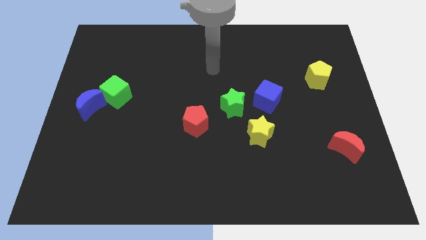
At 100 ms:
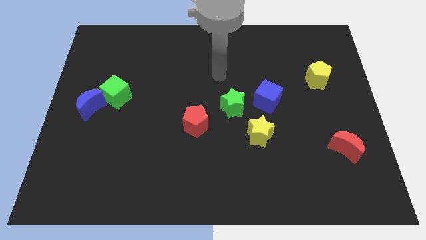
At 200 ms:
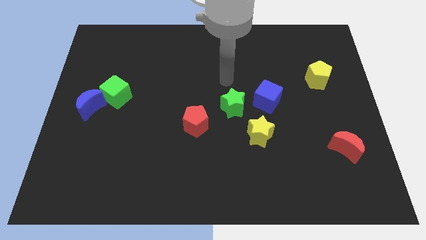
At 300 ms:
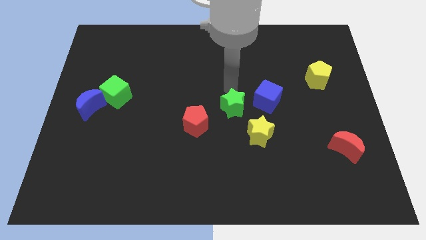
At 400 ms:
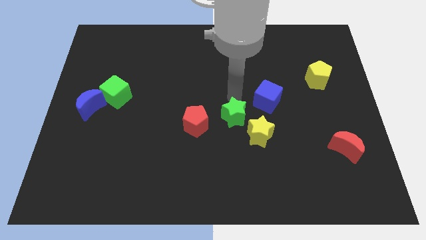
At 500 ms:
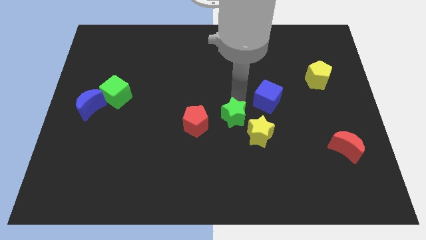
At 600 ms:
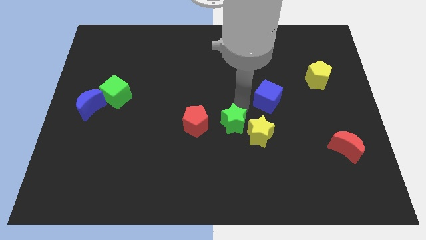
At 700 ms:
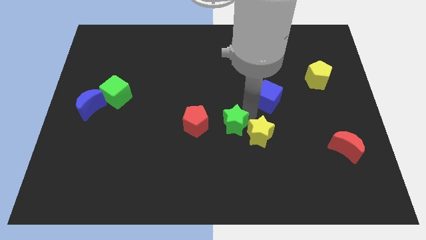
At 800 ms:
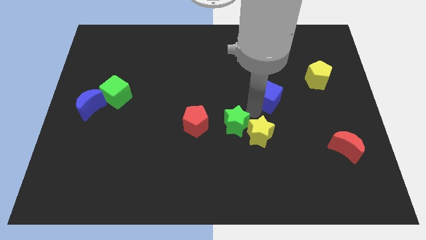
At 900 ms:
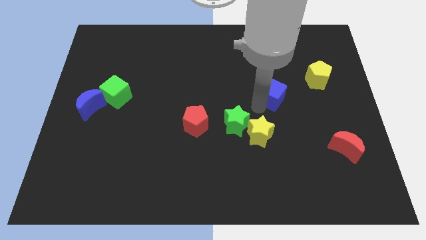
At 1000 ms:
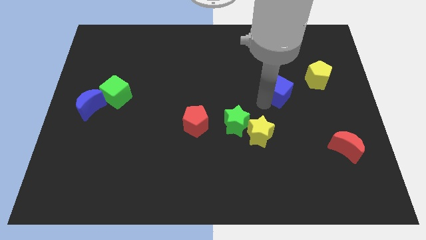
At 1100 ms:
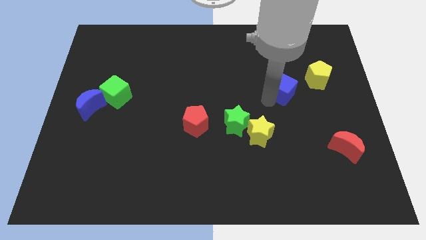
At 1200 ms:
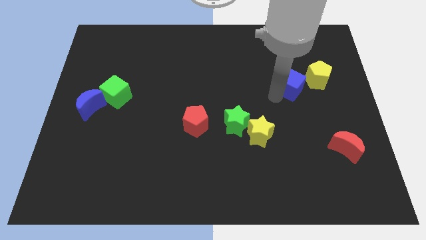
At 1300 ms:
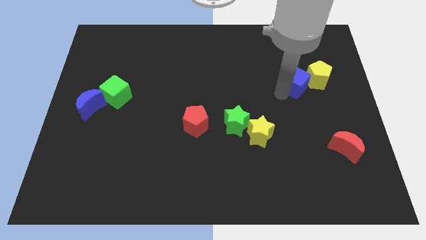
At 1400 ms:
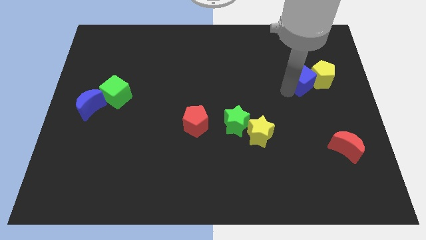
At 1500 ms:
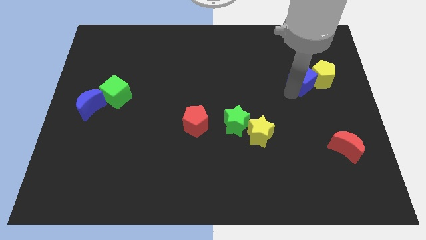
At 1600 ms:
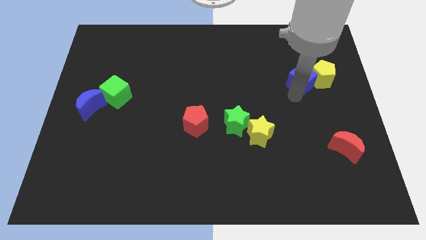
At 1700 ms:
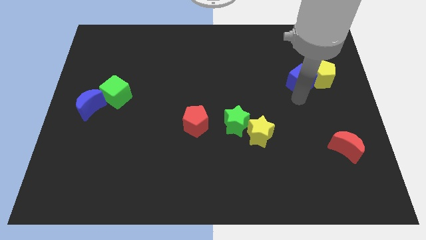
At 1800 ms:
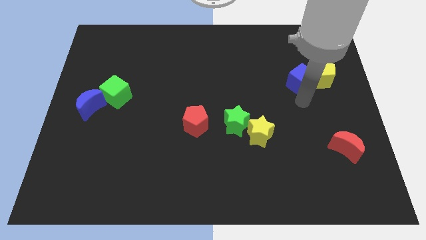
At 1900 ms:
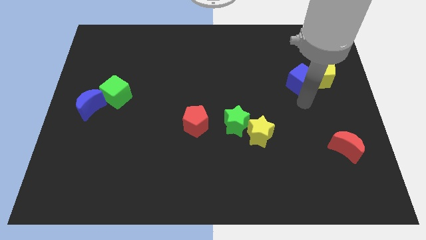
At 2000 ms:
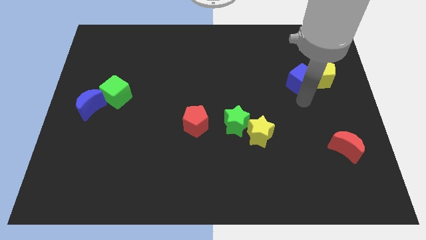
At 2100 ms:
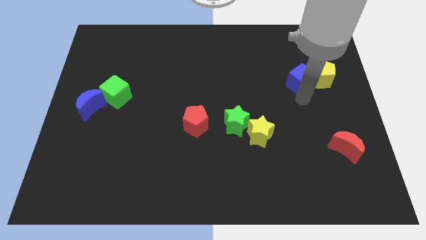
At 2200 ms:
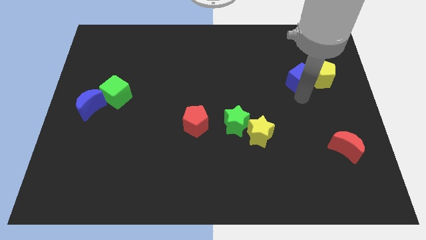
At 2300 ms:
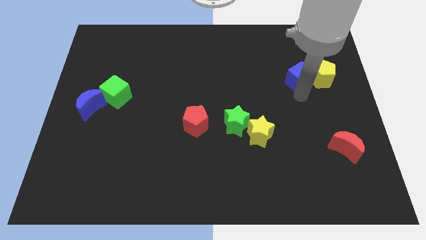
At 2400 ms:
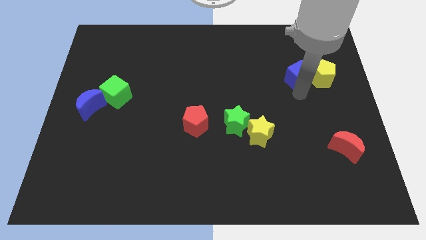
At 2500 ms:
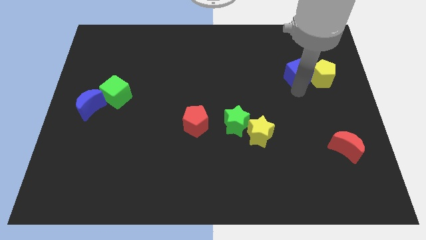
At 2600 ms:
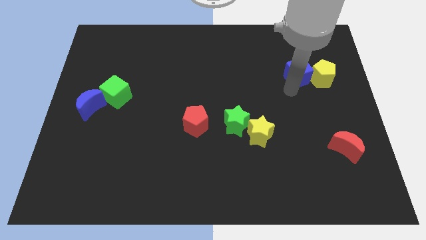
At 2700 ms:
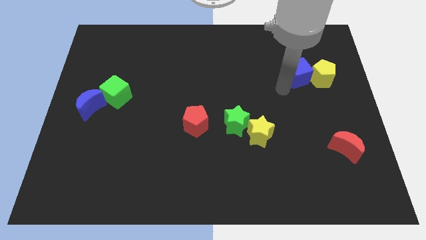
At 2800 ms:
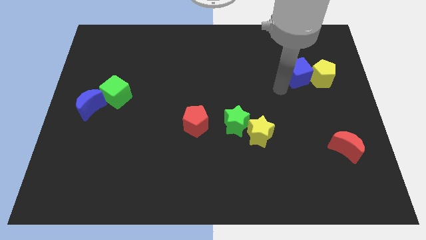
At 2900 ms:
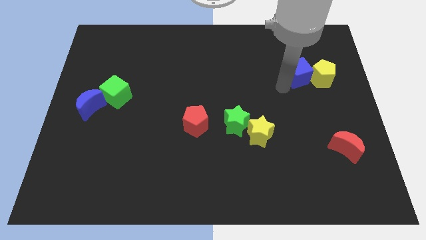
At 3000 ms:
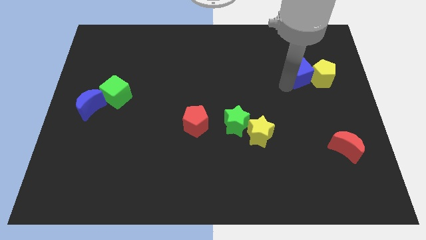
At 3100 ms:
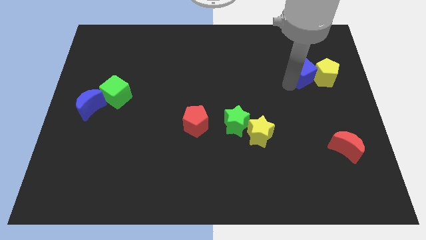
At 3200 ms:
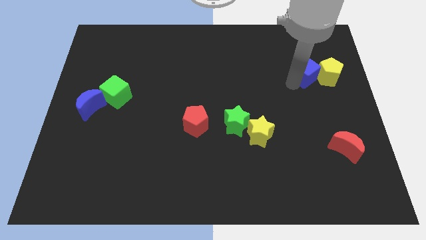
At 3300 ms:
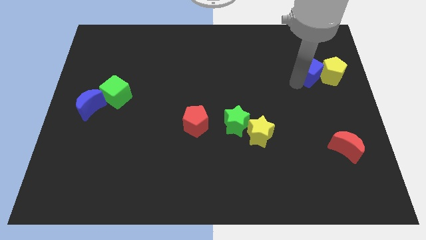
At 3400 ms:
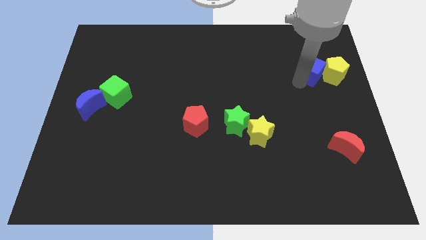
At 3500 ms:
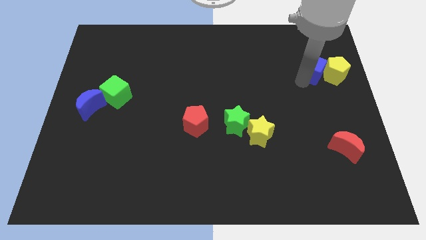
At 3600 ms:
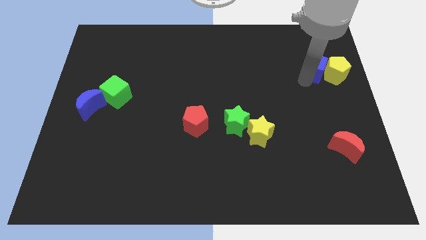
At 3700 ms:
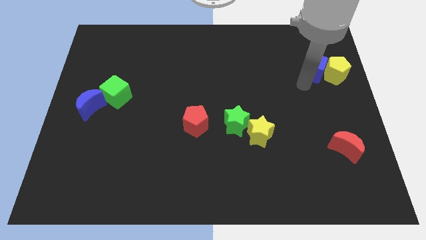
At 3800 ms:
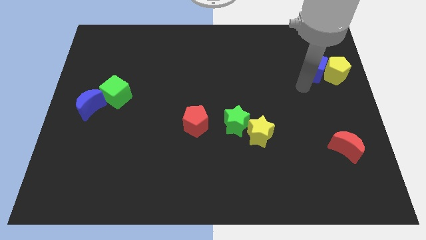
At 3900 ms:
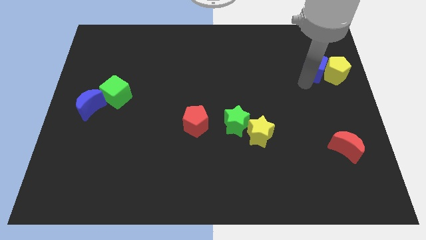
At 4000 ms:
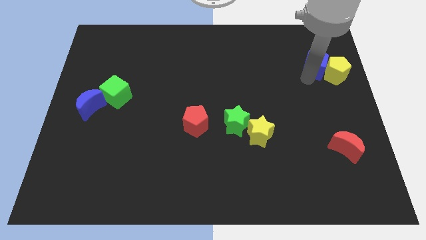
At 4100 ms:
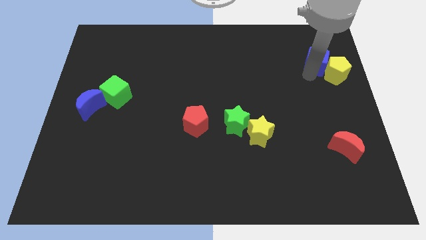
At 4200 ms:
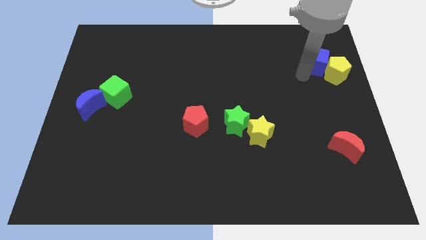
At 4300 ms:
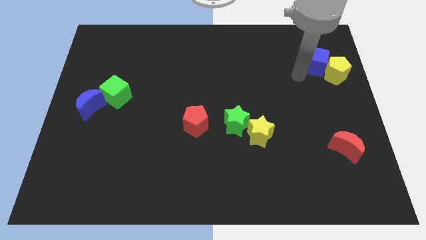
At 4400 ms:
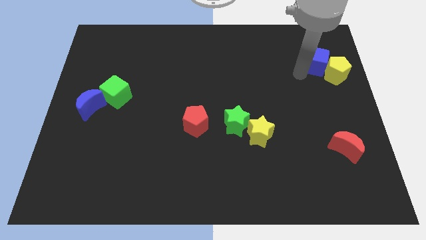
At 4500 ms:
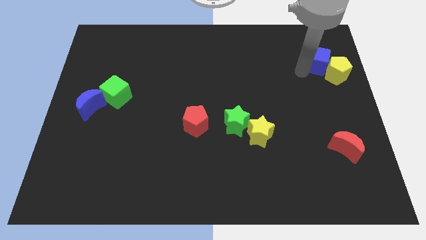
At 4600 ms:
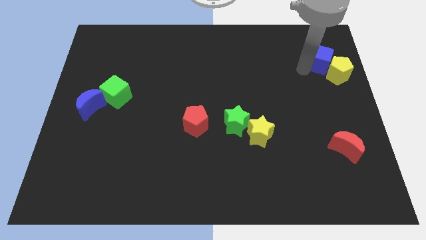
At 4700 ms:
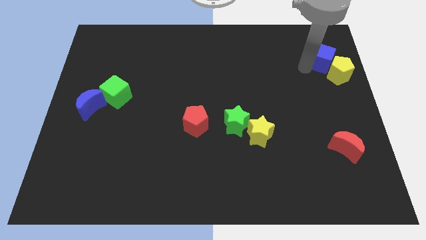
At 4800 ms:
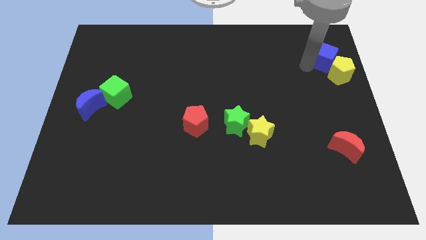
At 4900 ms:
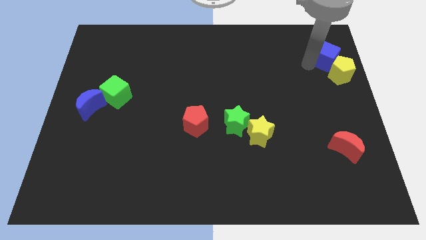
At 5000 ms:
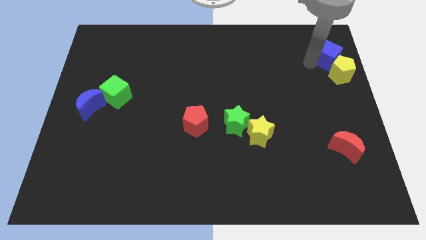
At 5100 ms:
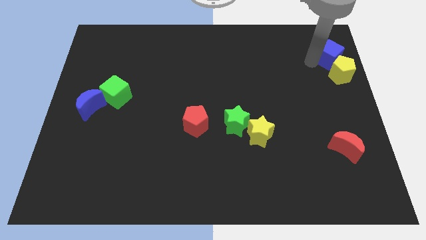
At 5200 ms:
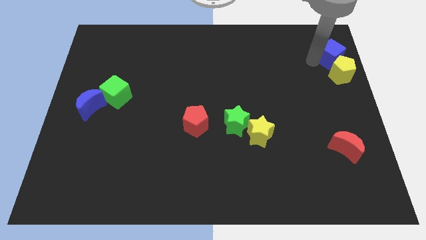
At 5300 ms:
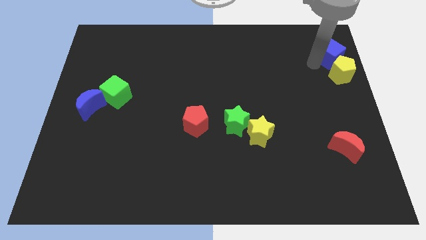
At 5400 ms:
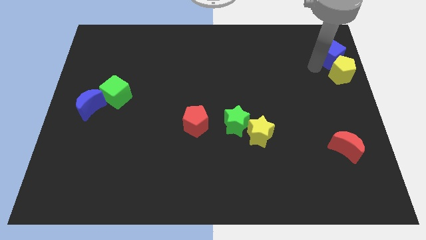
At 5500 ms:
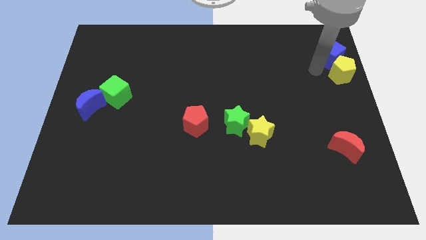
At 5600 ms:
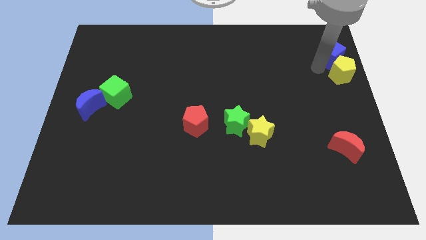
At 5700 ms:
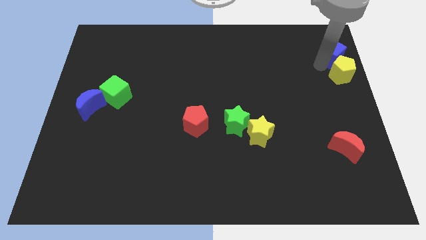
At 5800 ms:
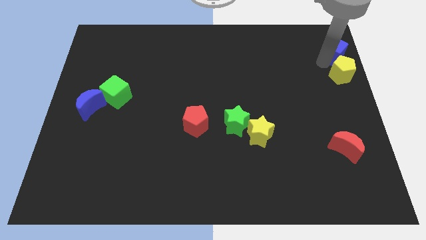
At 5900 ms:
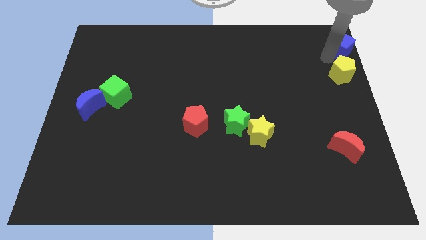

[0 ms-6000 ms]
slide the blue cube to the upper right corner

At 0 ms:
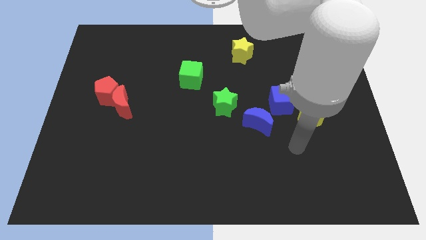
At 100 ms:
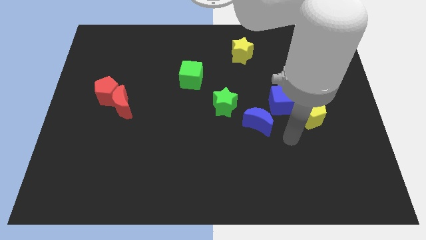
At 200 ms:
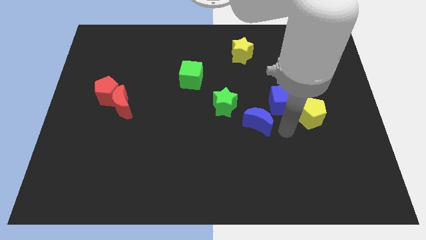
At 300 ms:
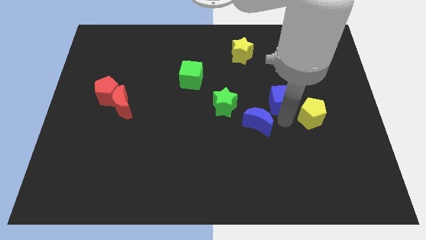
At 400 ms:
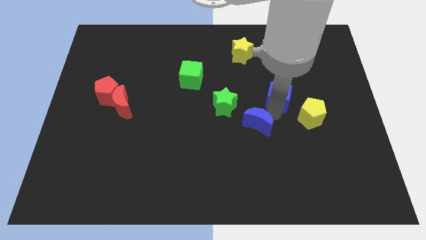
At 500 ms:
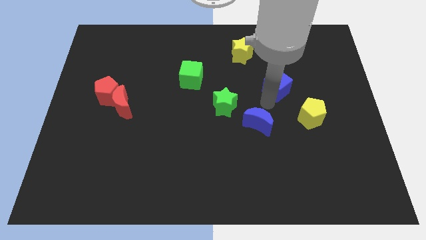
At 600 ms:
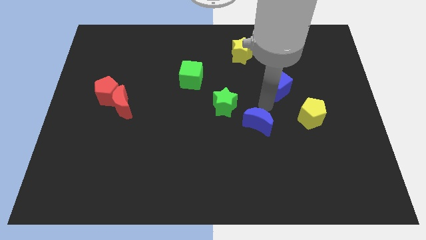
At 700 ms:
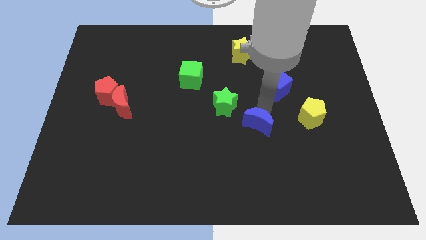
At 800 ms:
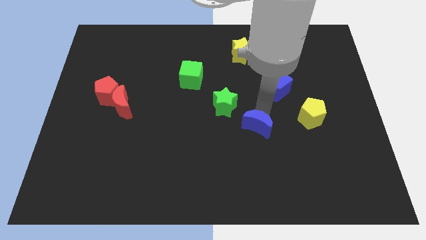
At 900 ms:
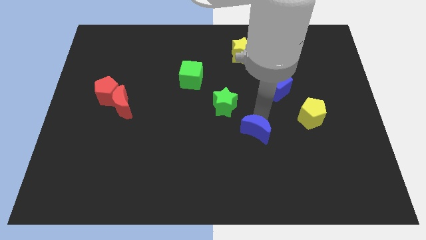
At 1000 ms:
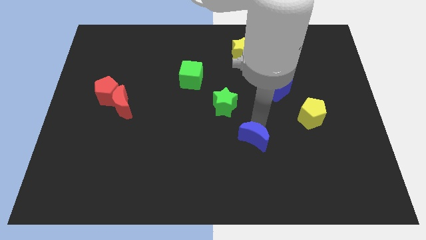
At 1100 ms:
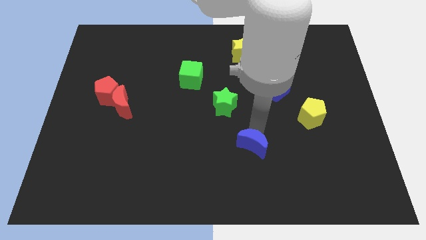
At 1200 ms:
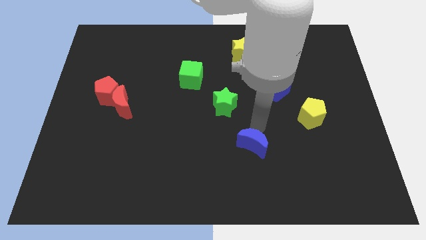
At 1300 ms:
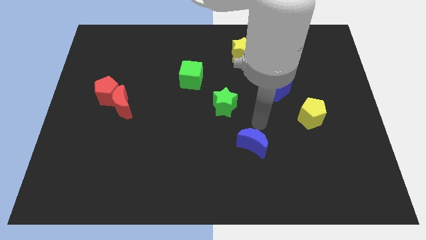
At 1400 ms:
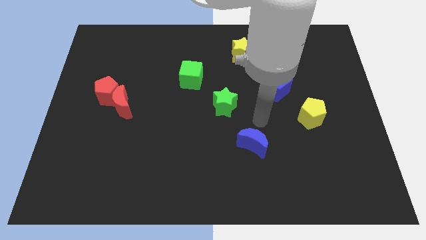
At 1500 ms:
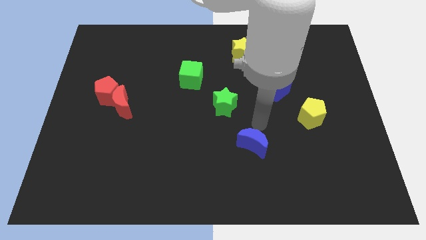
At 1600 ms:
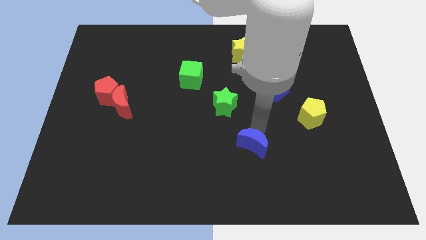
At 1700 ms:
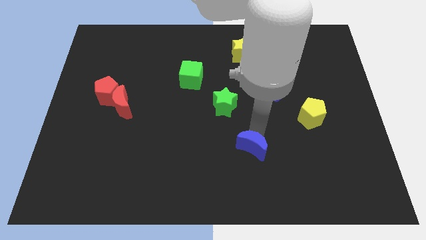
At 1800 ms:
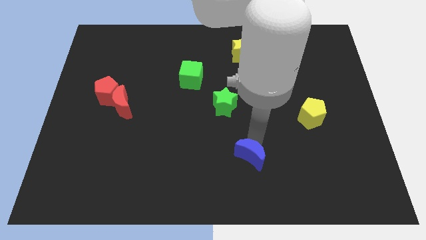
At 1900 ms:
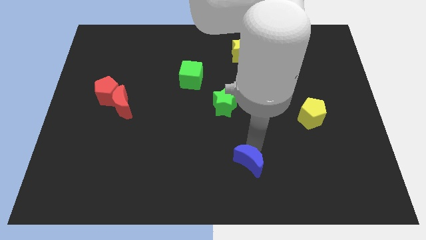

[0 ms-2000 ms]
move the blue moon to the bottom side
